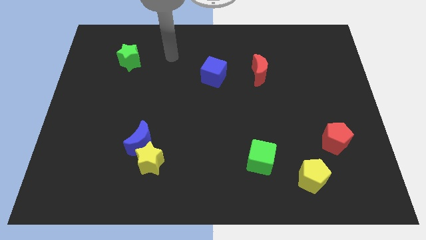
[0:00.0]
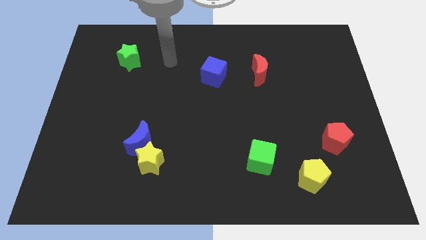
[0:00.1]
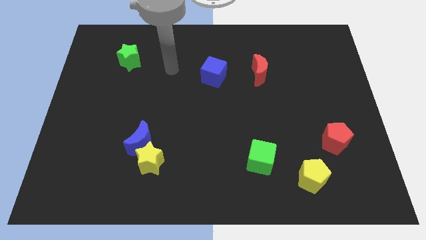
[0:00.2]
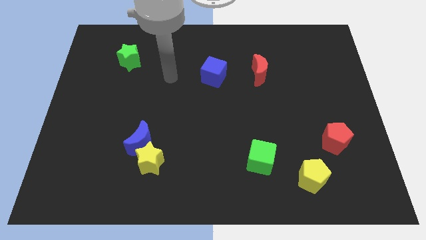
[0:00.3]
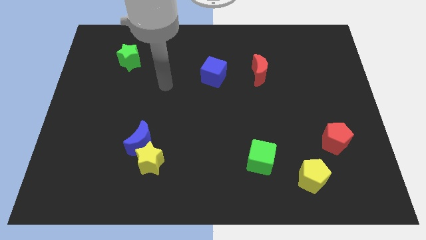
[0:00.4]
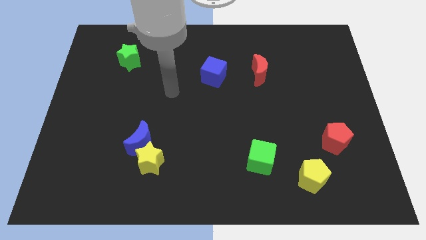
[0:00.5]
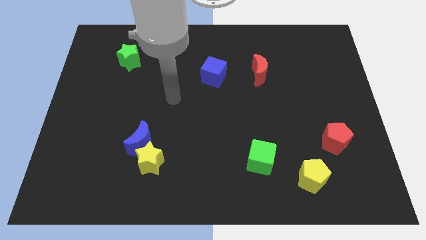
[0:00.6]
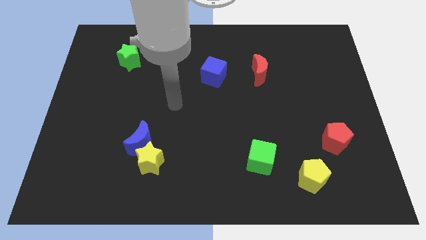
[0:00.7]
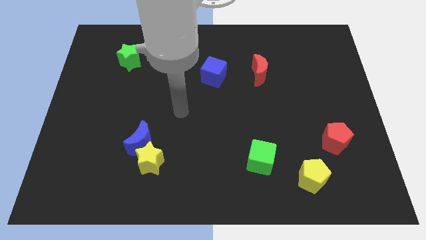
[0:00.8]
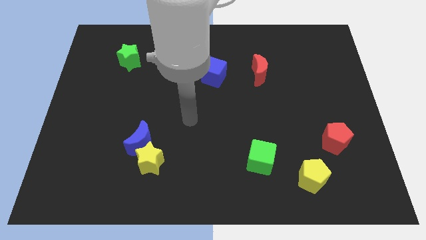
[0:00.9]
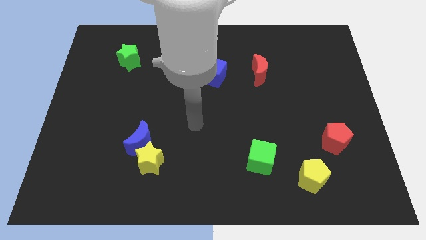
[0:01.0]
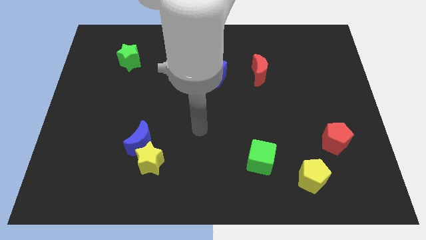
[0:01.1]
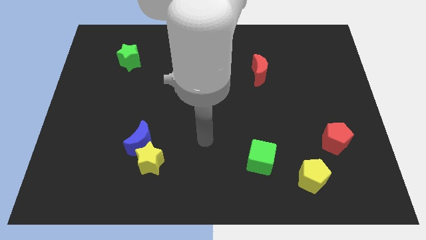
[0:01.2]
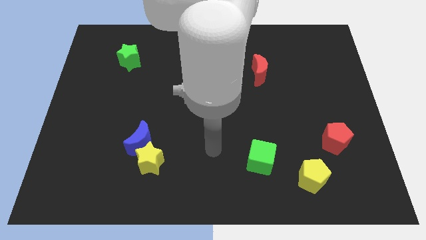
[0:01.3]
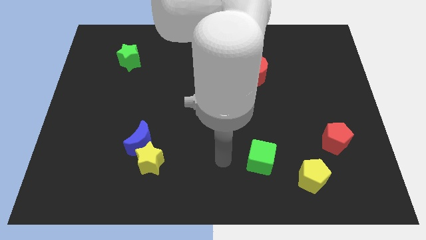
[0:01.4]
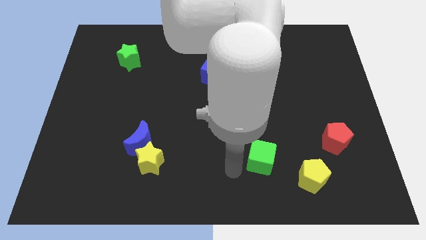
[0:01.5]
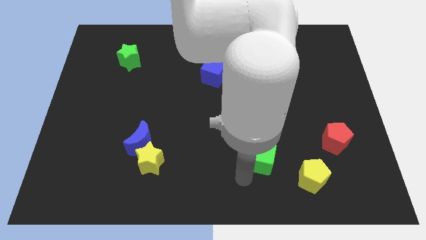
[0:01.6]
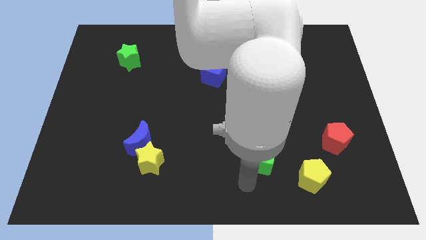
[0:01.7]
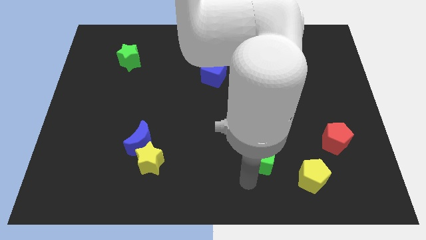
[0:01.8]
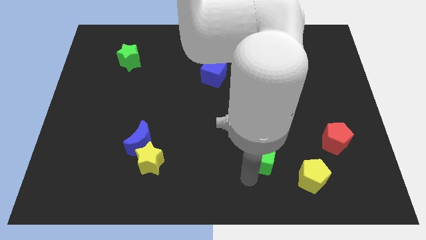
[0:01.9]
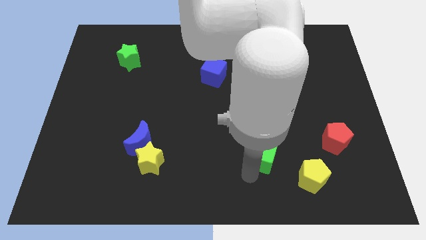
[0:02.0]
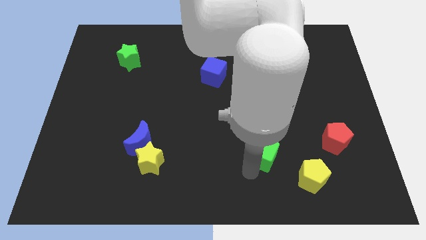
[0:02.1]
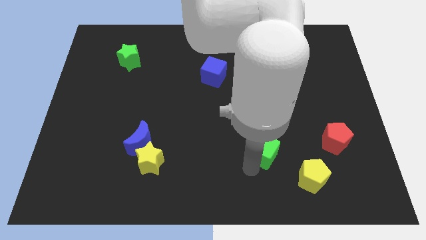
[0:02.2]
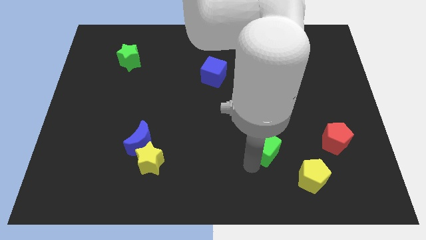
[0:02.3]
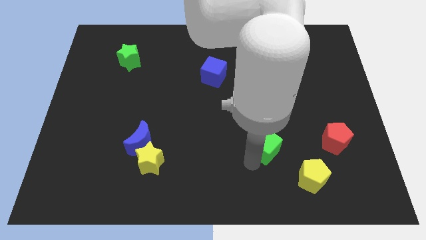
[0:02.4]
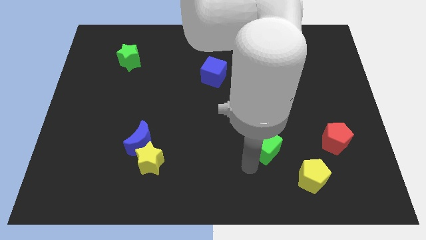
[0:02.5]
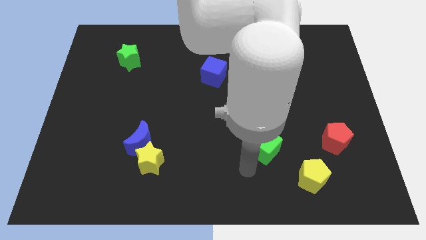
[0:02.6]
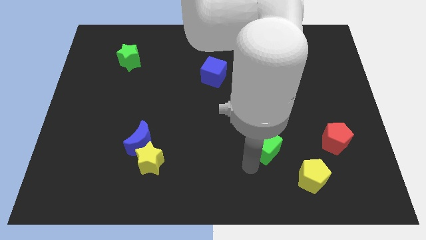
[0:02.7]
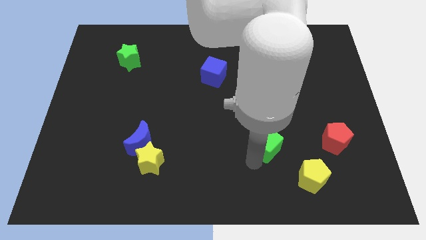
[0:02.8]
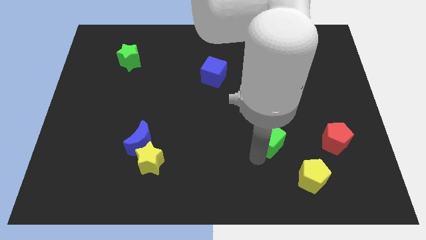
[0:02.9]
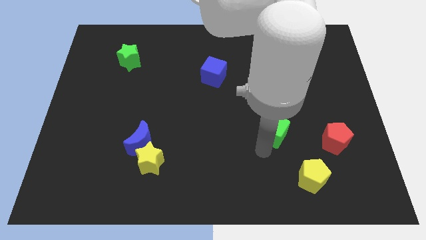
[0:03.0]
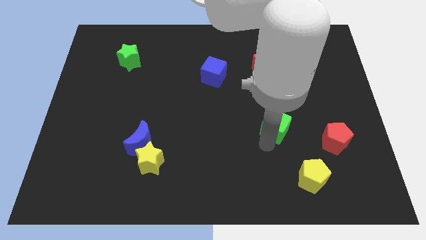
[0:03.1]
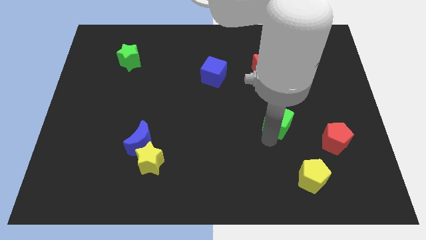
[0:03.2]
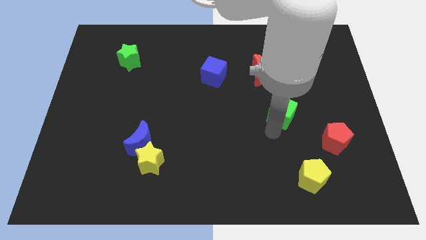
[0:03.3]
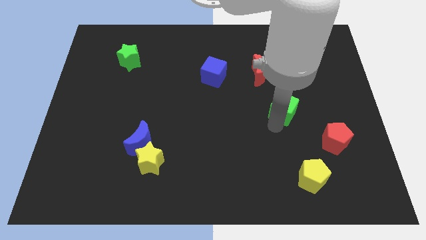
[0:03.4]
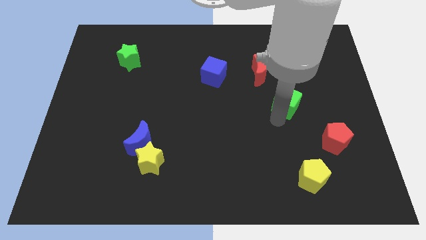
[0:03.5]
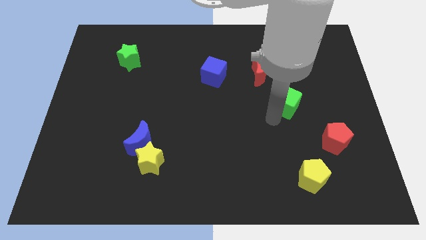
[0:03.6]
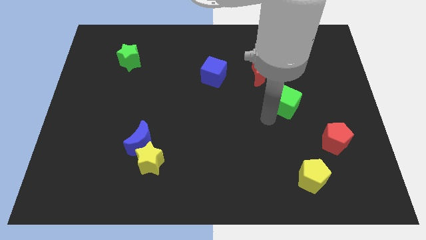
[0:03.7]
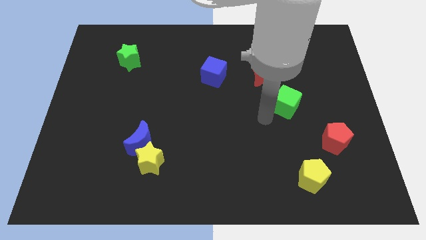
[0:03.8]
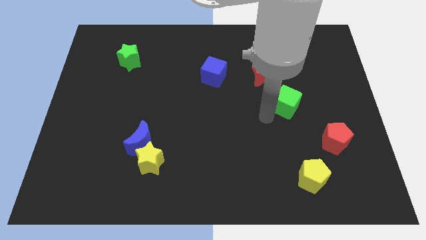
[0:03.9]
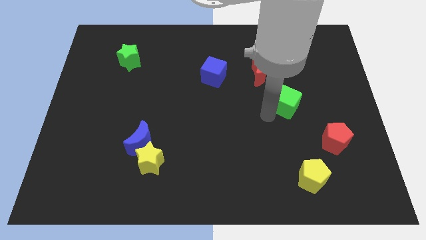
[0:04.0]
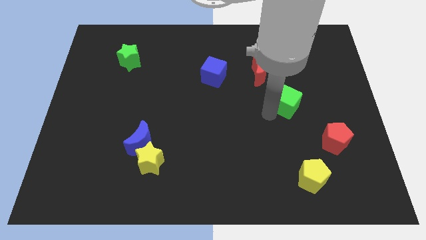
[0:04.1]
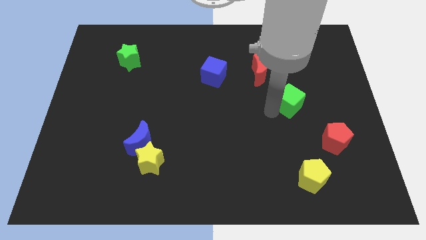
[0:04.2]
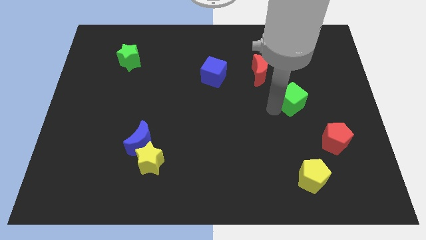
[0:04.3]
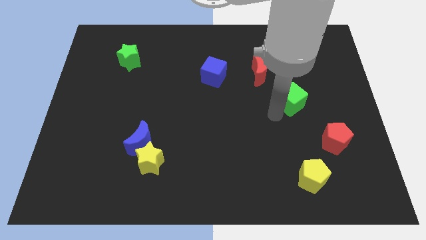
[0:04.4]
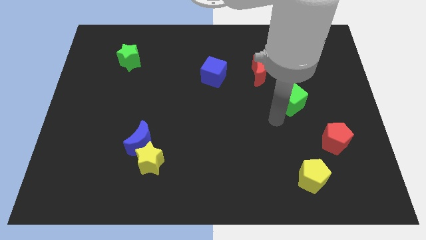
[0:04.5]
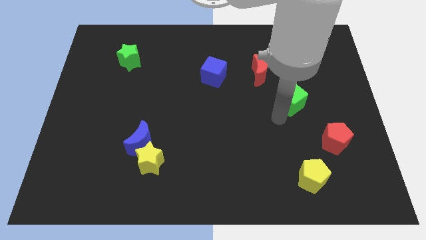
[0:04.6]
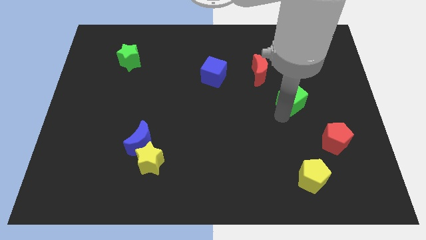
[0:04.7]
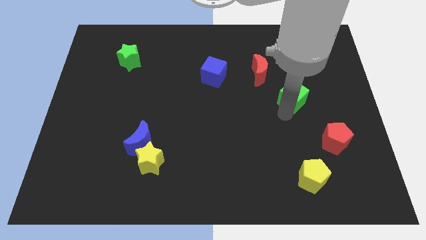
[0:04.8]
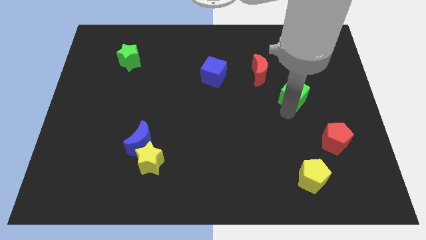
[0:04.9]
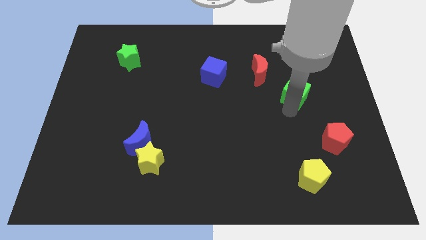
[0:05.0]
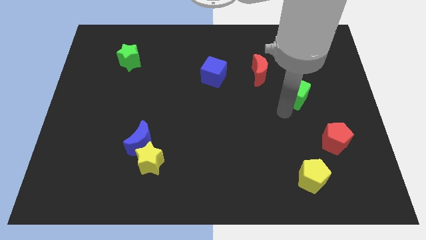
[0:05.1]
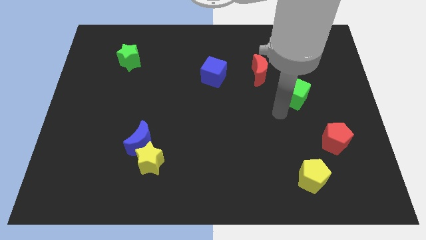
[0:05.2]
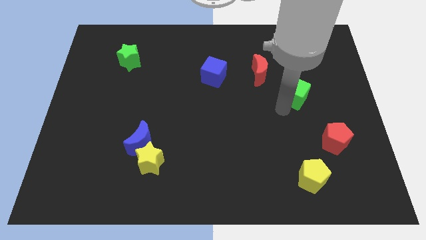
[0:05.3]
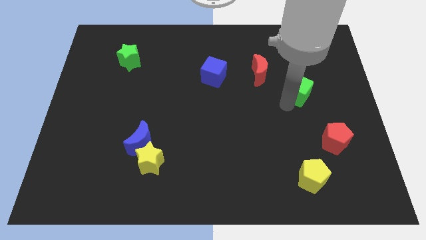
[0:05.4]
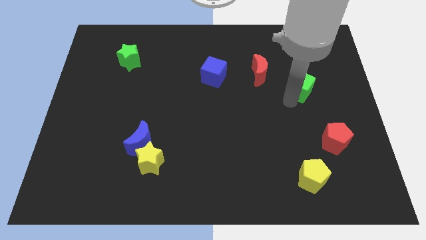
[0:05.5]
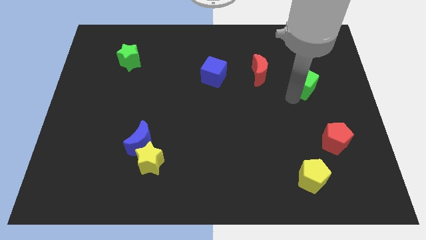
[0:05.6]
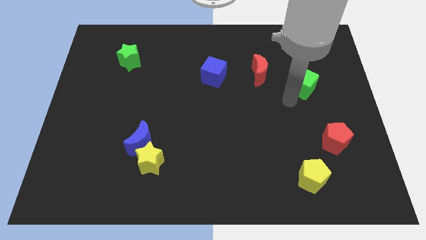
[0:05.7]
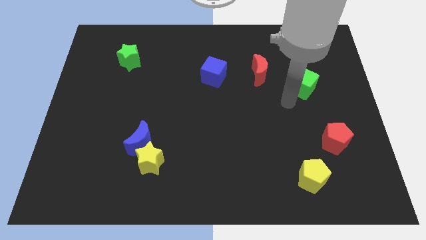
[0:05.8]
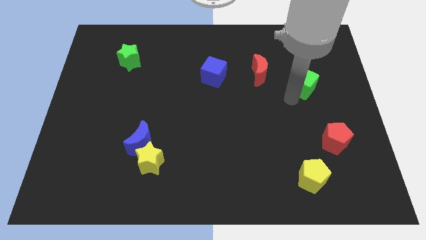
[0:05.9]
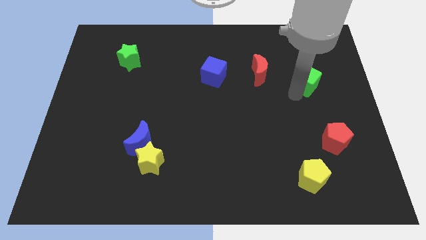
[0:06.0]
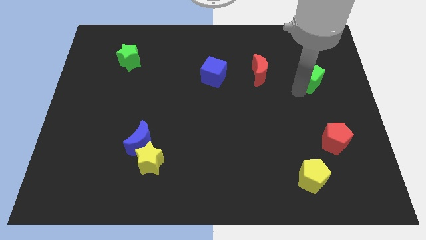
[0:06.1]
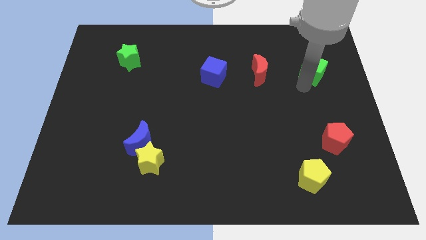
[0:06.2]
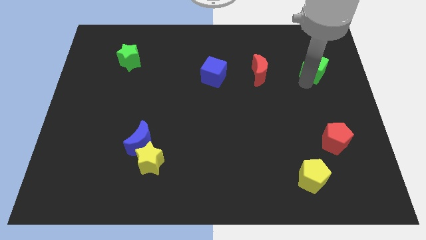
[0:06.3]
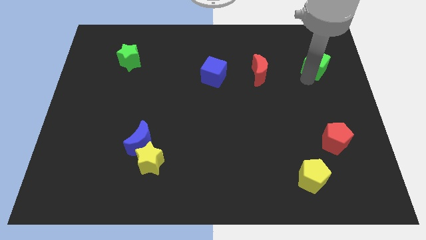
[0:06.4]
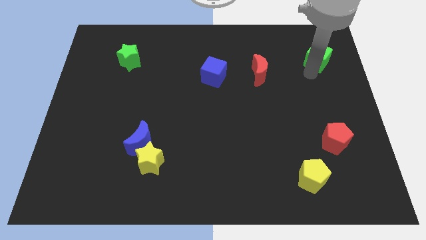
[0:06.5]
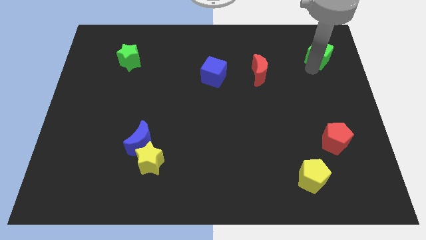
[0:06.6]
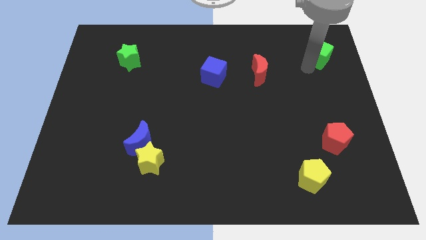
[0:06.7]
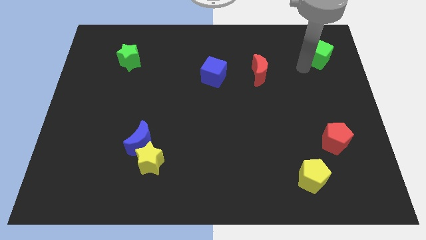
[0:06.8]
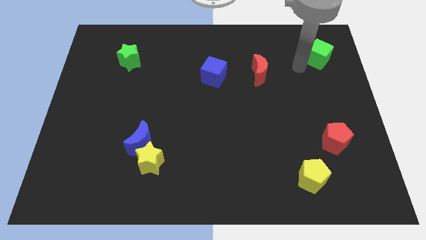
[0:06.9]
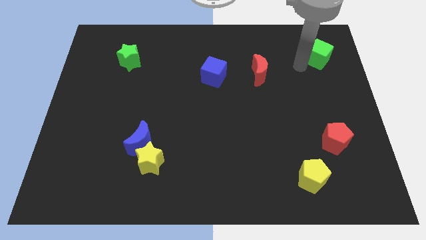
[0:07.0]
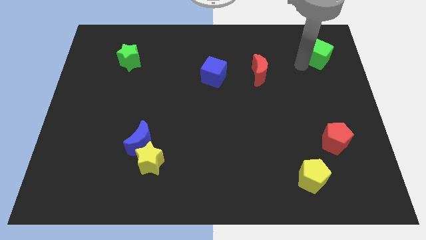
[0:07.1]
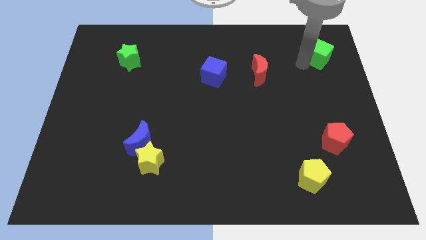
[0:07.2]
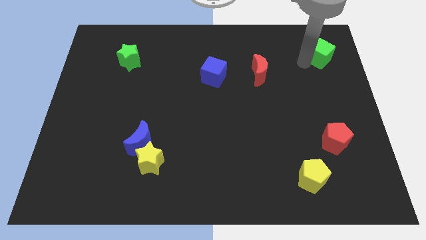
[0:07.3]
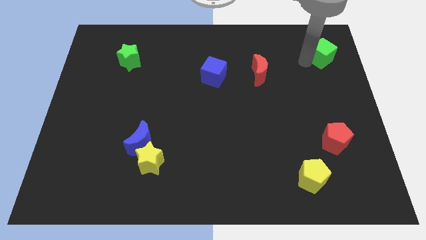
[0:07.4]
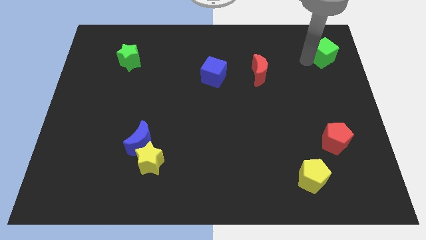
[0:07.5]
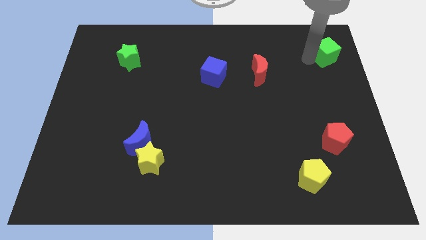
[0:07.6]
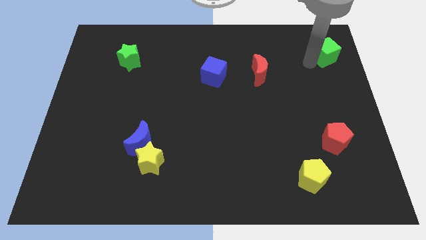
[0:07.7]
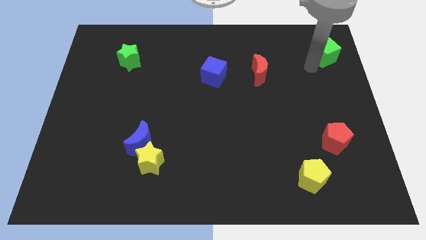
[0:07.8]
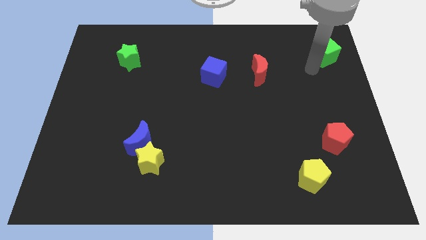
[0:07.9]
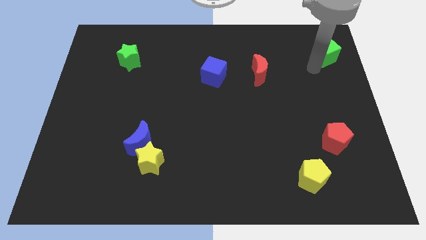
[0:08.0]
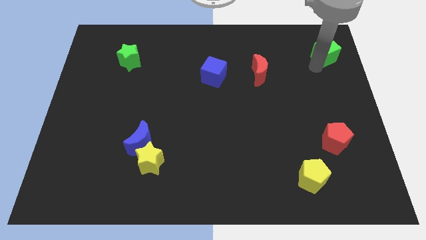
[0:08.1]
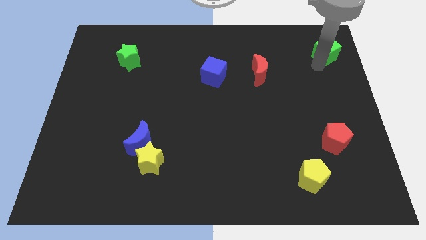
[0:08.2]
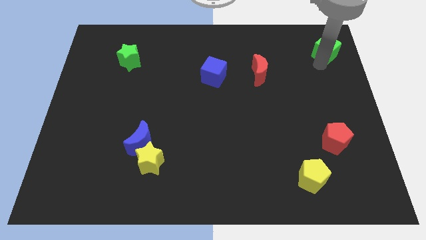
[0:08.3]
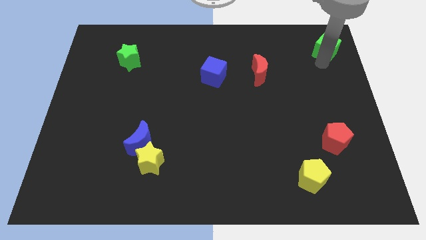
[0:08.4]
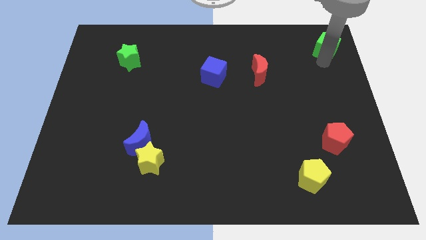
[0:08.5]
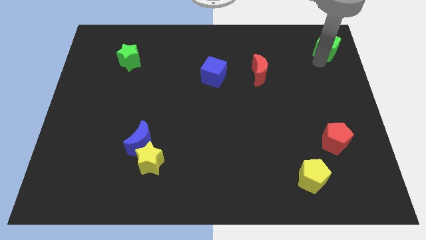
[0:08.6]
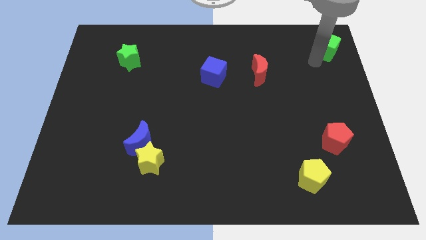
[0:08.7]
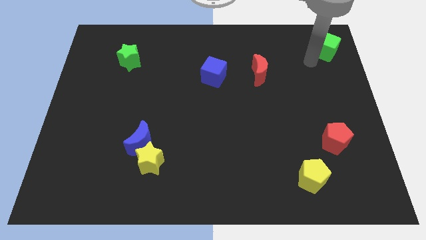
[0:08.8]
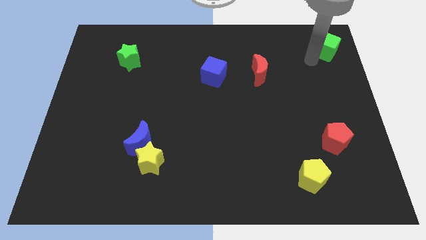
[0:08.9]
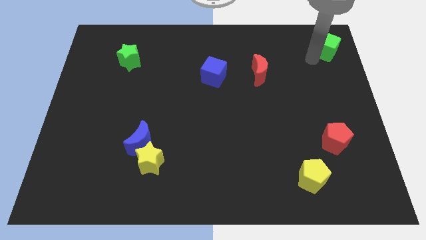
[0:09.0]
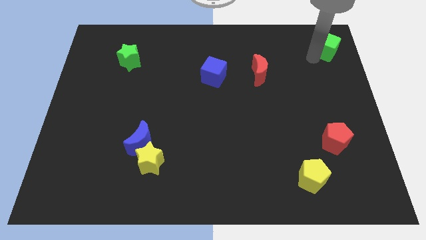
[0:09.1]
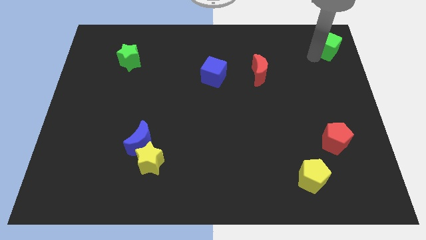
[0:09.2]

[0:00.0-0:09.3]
slide the green cube to the upper right corner
